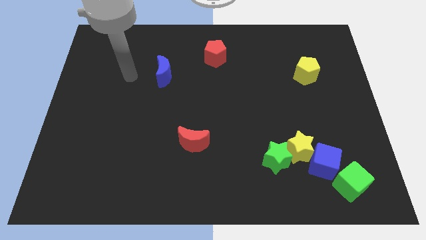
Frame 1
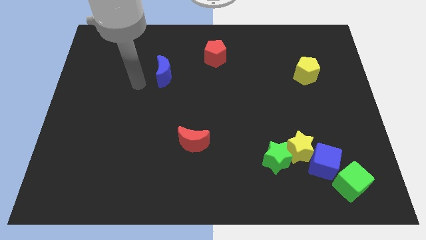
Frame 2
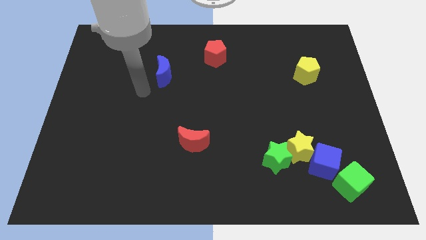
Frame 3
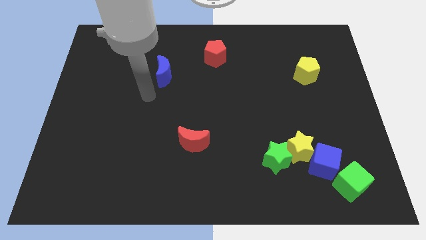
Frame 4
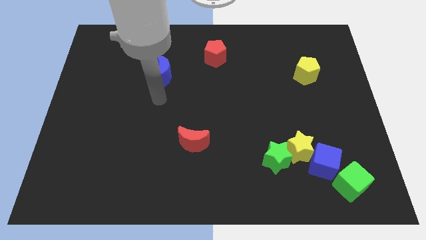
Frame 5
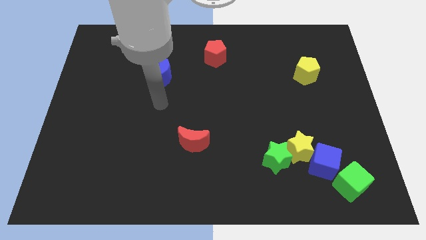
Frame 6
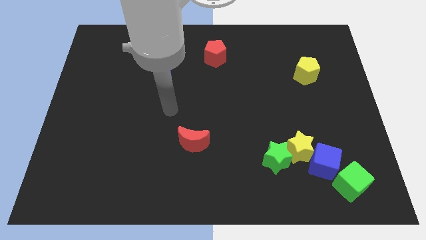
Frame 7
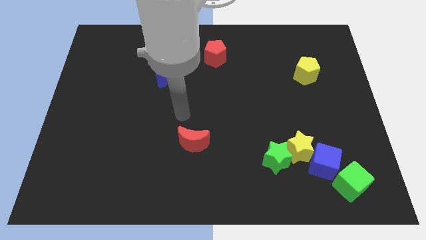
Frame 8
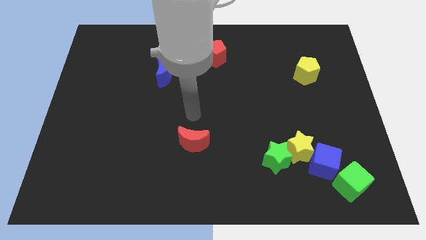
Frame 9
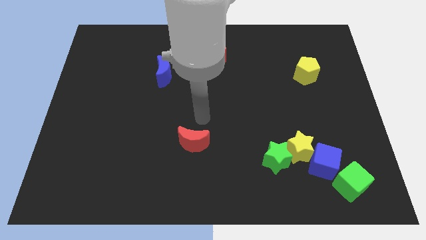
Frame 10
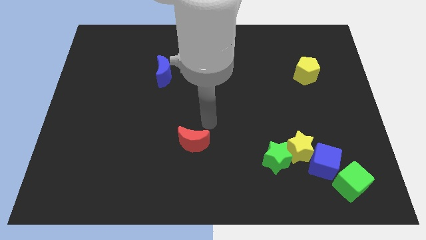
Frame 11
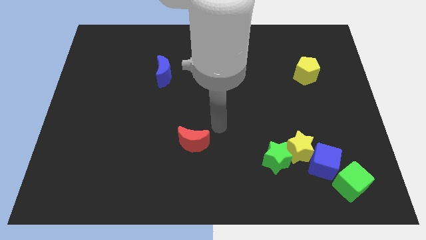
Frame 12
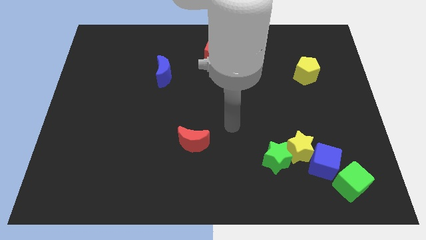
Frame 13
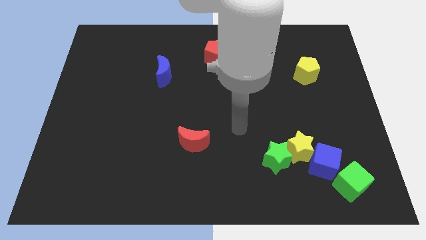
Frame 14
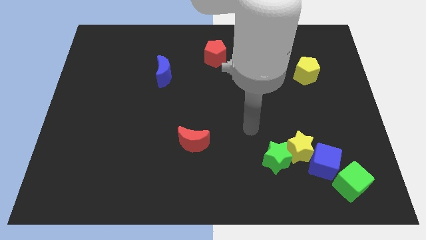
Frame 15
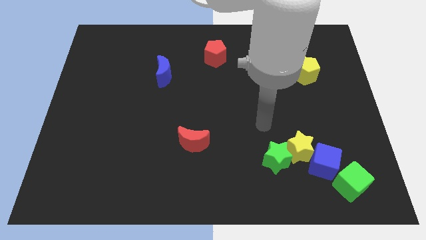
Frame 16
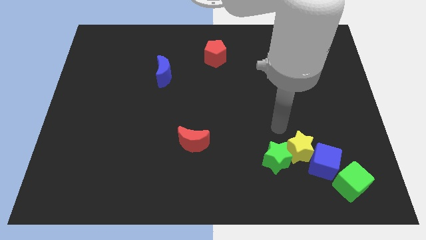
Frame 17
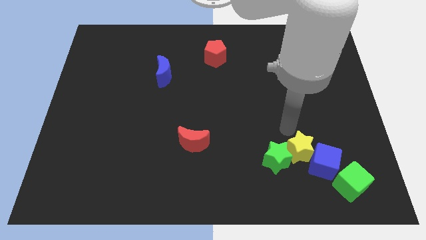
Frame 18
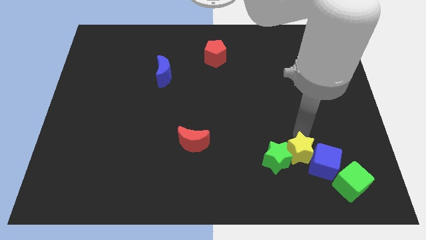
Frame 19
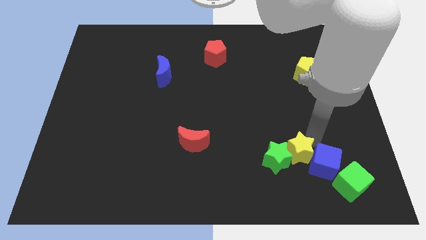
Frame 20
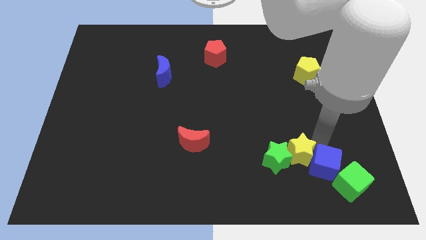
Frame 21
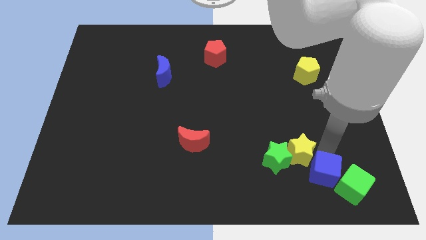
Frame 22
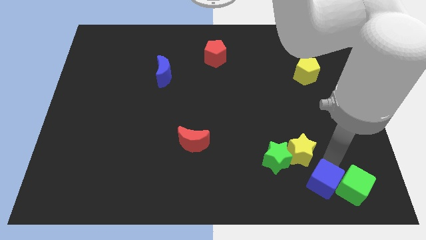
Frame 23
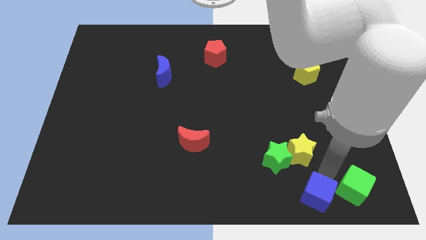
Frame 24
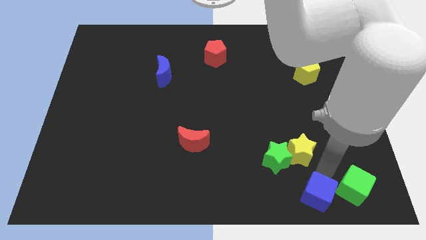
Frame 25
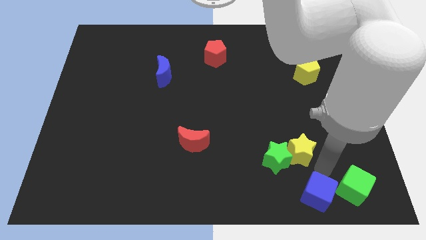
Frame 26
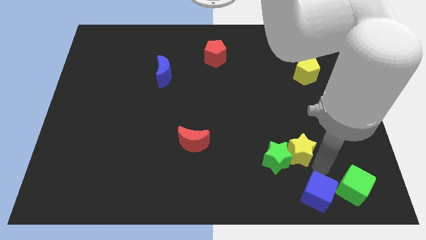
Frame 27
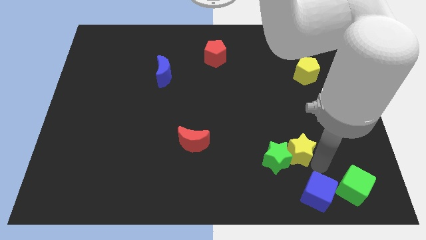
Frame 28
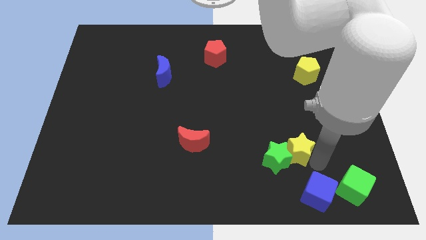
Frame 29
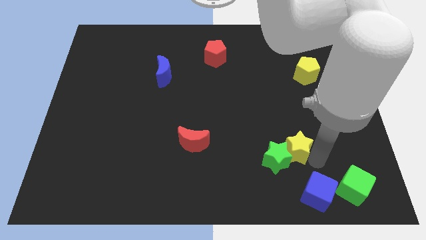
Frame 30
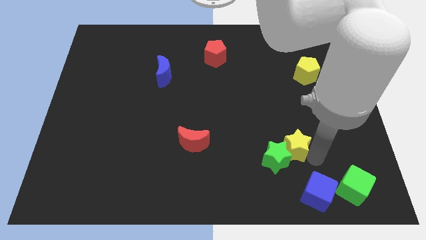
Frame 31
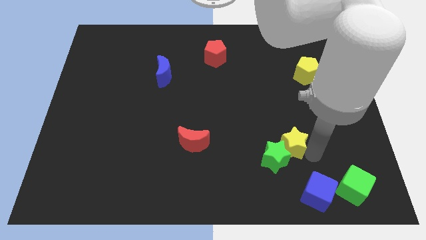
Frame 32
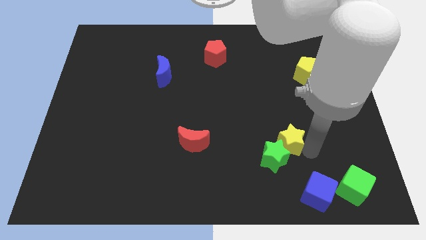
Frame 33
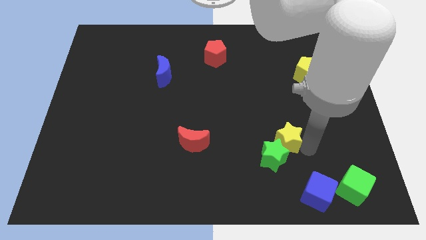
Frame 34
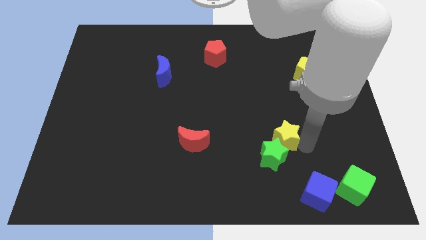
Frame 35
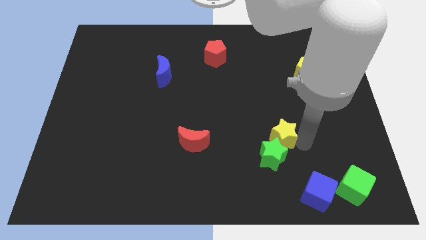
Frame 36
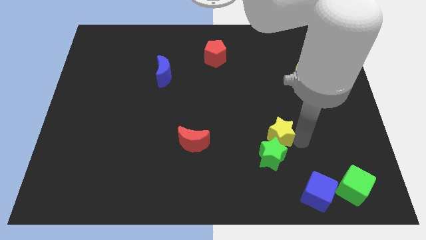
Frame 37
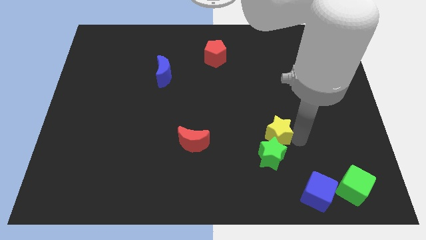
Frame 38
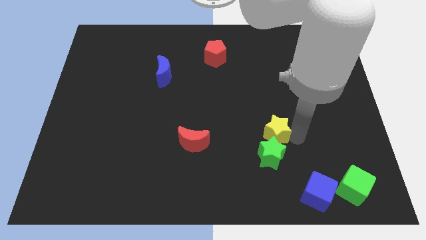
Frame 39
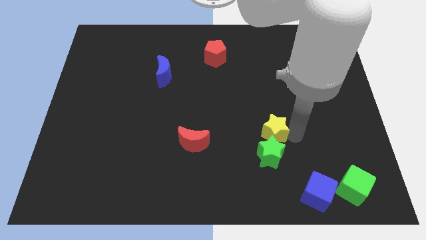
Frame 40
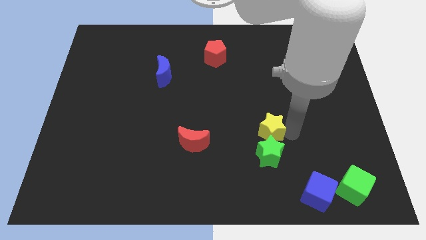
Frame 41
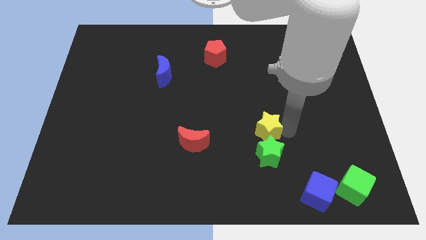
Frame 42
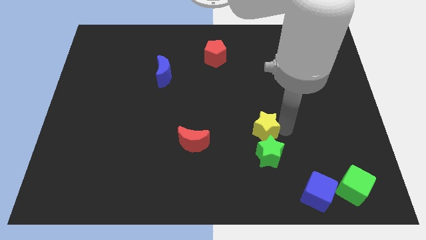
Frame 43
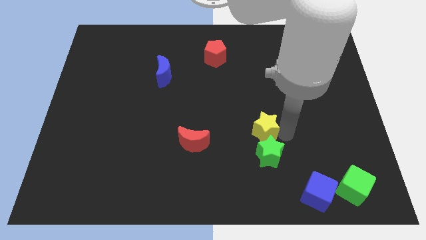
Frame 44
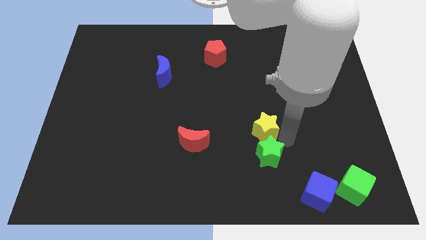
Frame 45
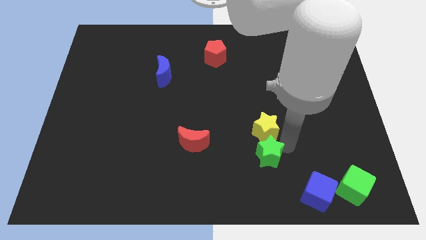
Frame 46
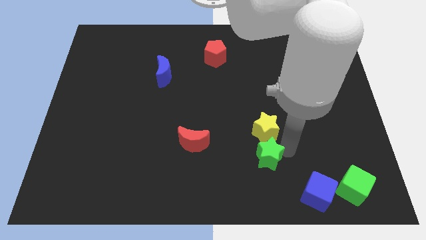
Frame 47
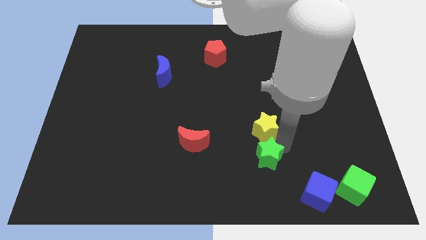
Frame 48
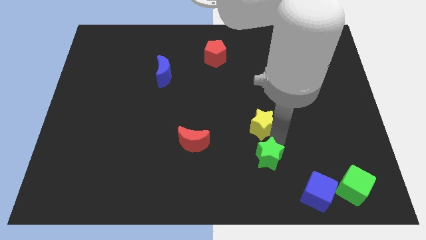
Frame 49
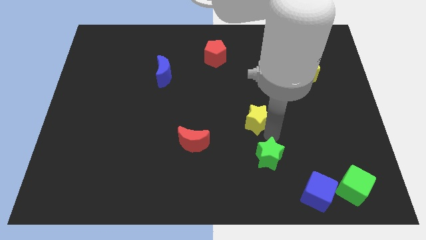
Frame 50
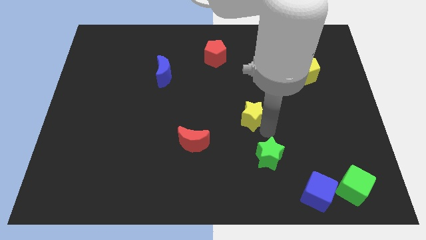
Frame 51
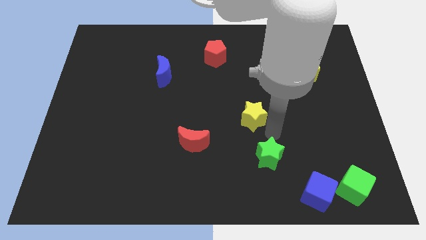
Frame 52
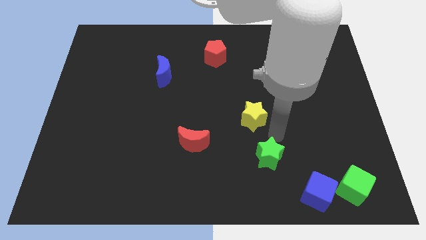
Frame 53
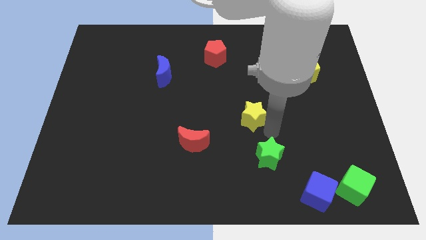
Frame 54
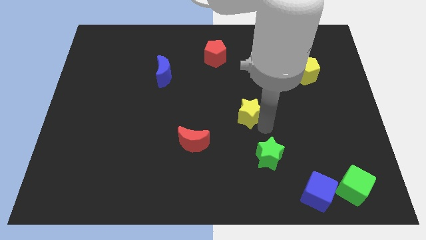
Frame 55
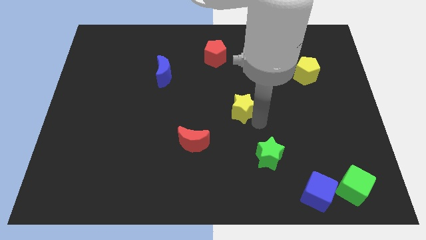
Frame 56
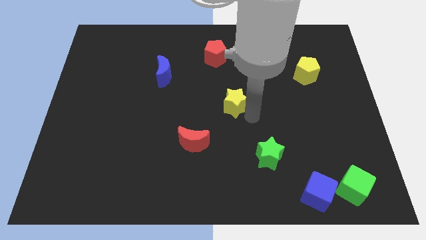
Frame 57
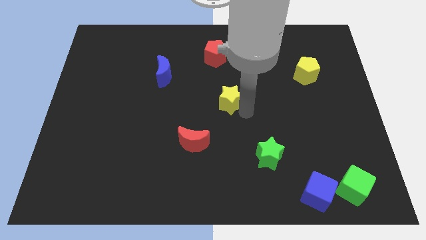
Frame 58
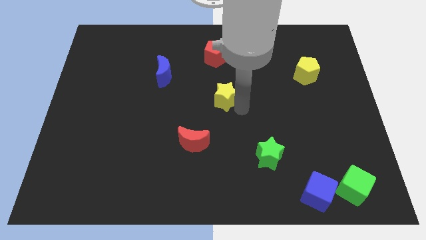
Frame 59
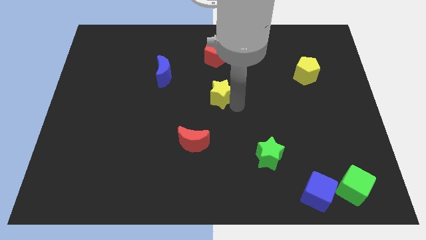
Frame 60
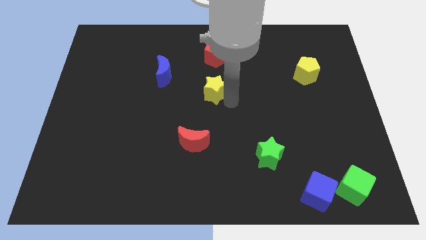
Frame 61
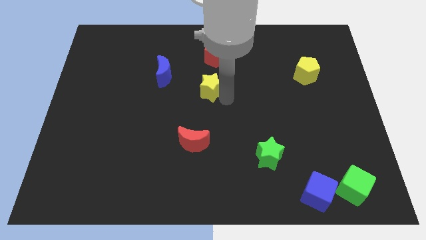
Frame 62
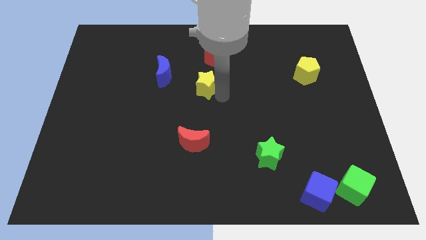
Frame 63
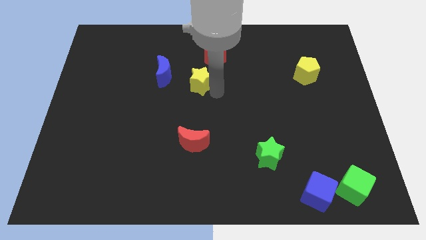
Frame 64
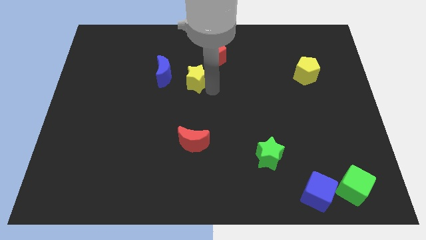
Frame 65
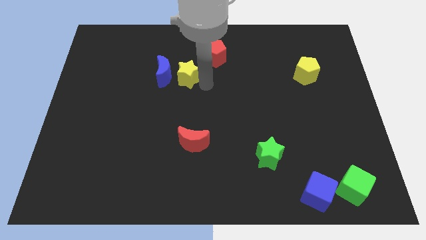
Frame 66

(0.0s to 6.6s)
push the yellow star next to the blue moon

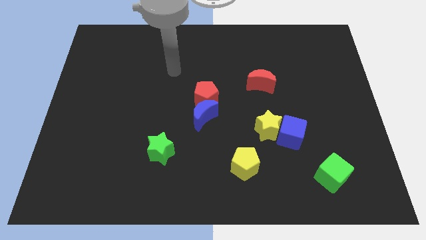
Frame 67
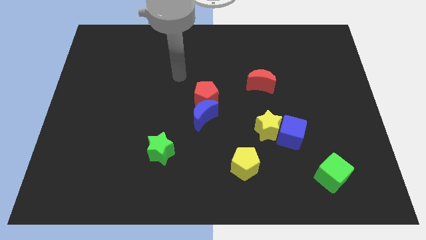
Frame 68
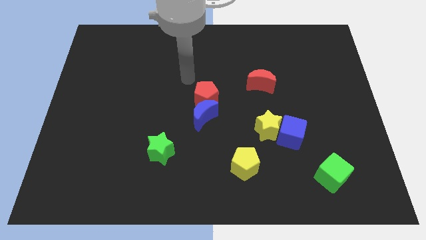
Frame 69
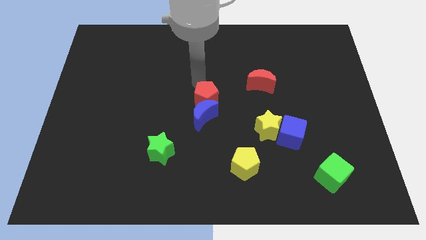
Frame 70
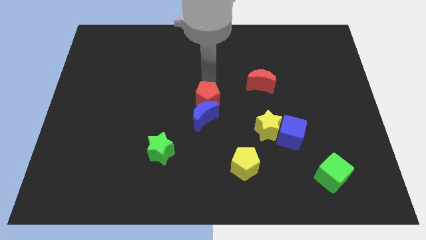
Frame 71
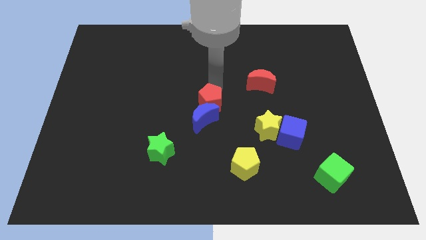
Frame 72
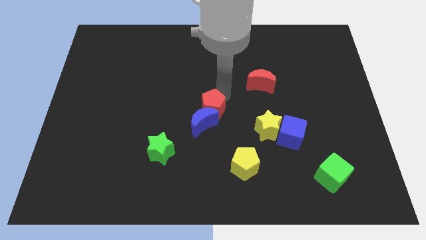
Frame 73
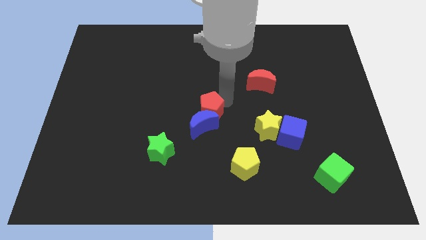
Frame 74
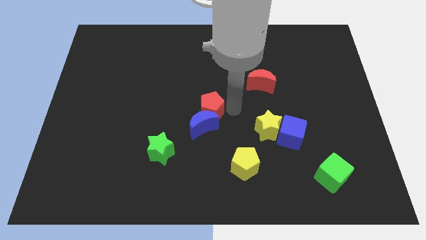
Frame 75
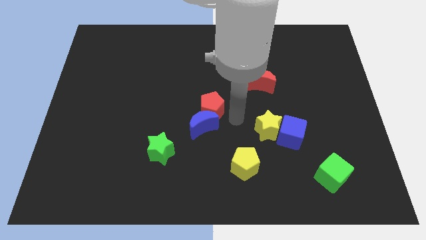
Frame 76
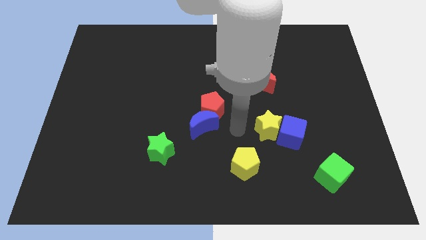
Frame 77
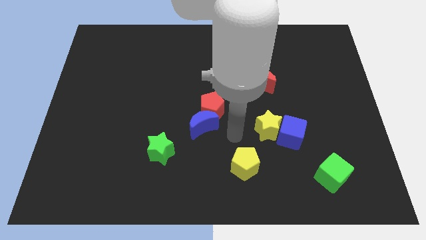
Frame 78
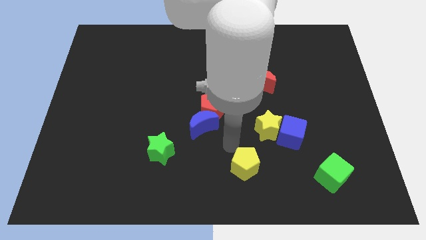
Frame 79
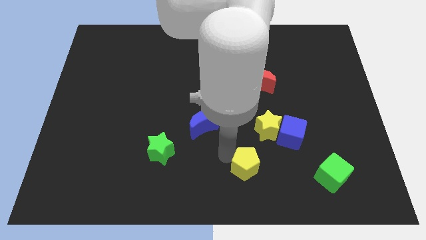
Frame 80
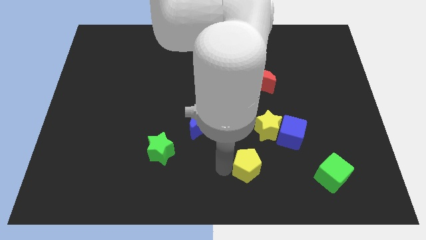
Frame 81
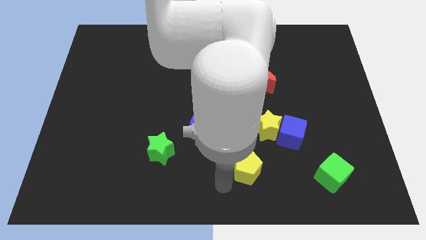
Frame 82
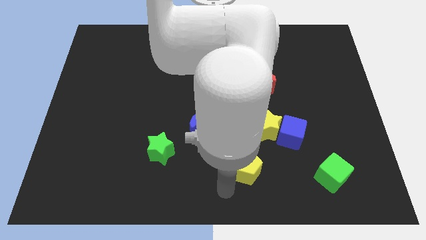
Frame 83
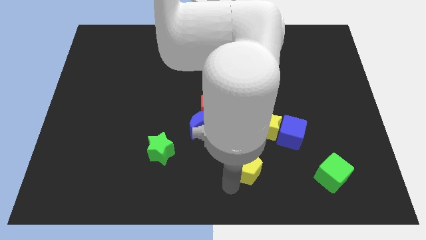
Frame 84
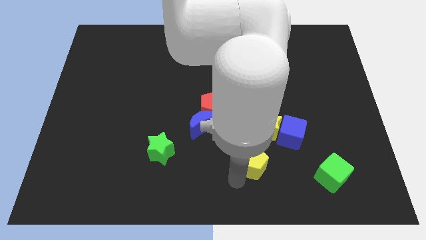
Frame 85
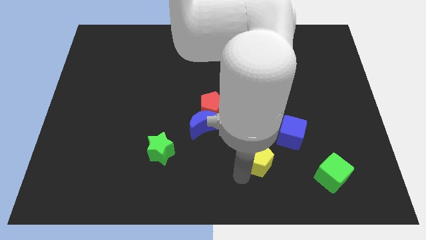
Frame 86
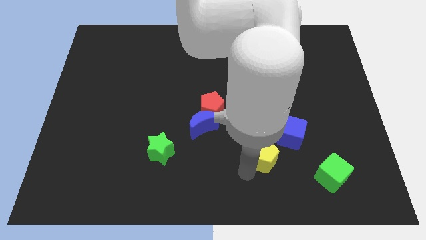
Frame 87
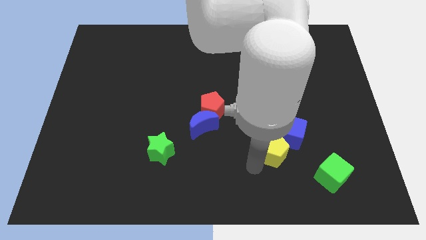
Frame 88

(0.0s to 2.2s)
push the yellow pentagon close to the blue cube
